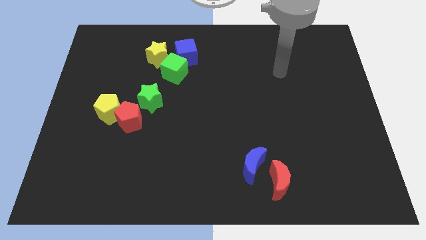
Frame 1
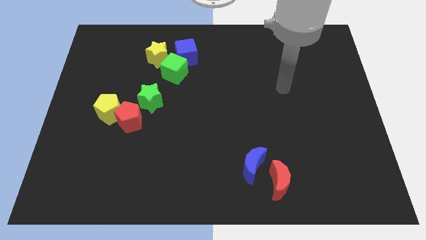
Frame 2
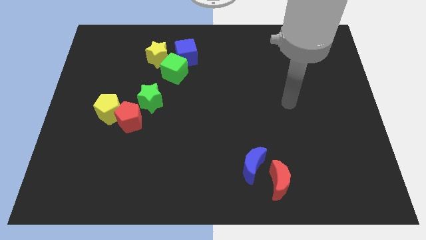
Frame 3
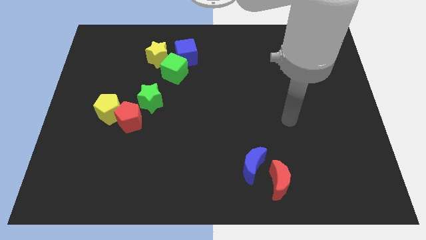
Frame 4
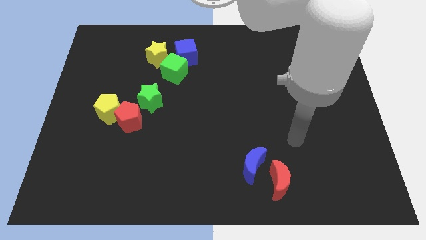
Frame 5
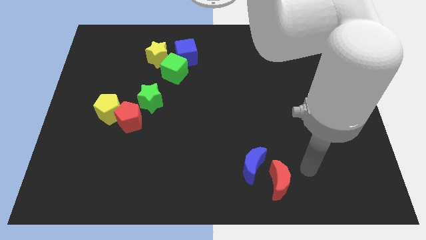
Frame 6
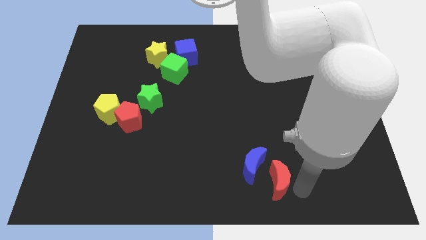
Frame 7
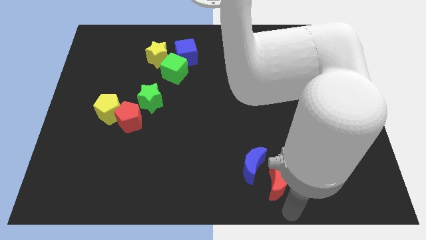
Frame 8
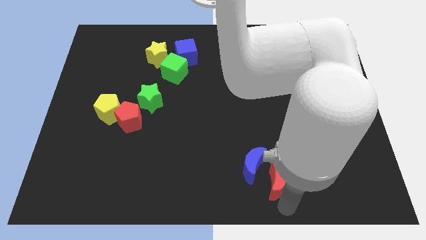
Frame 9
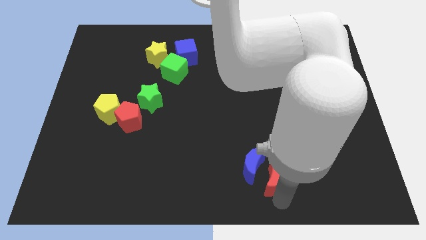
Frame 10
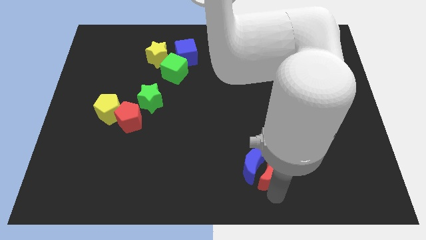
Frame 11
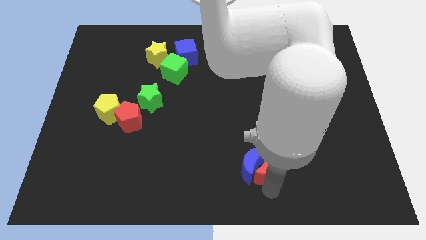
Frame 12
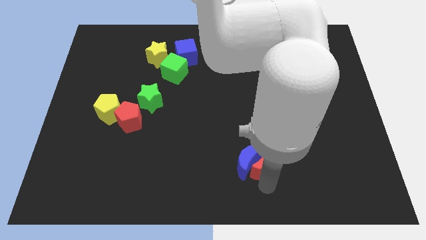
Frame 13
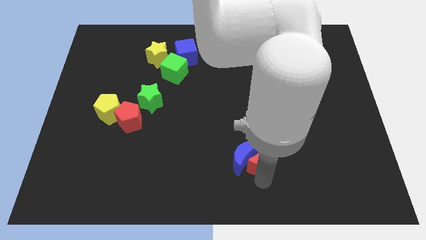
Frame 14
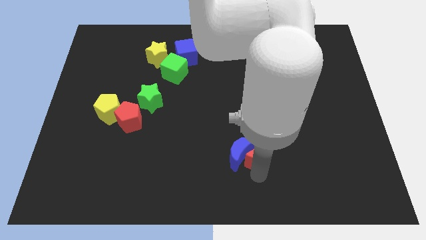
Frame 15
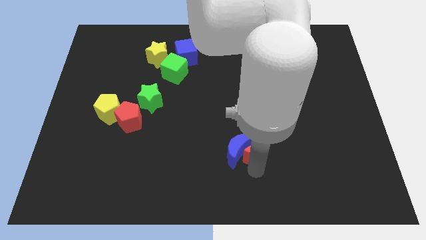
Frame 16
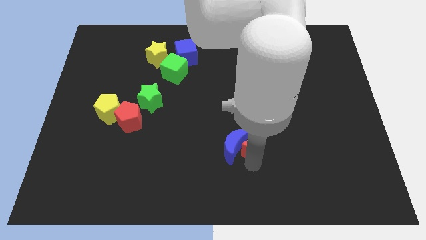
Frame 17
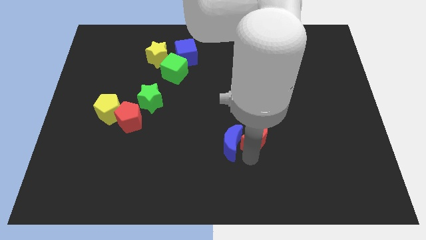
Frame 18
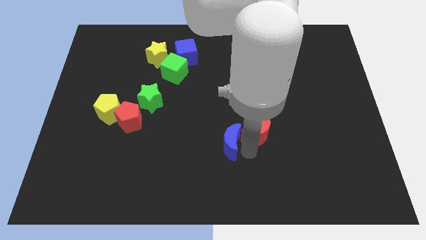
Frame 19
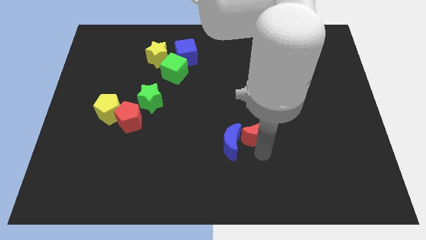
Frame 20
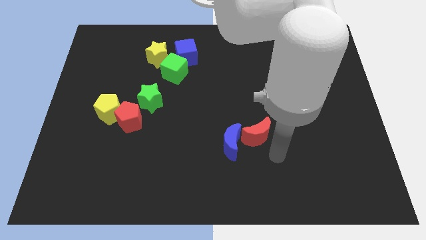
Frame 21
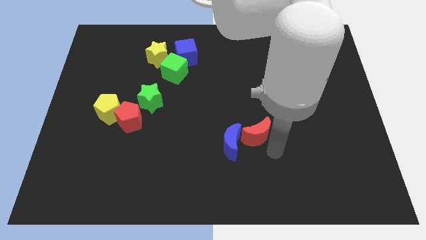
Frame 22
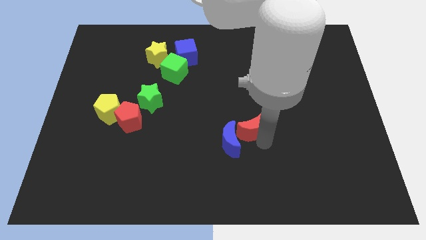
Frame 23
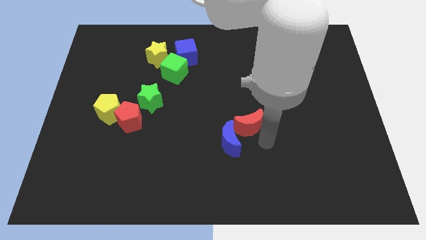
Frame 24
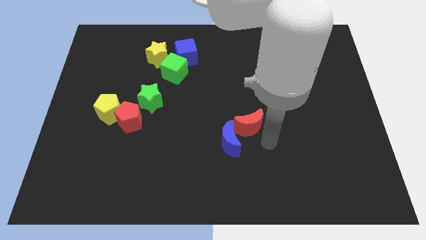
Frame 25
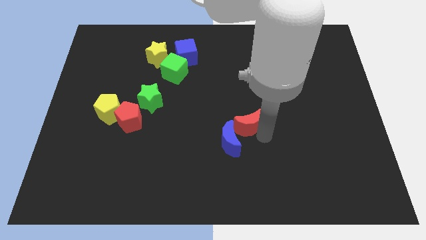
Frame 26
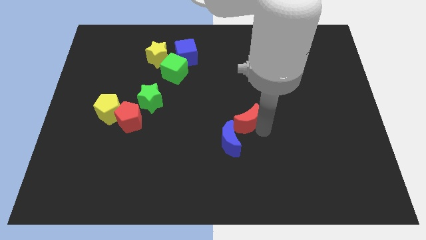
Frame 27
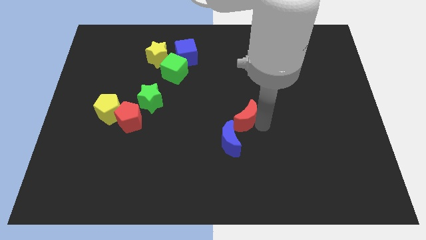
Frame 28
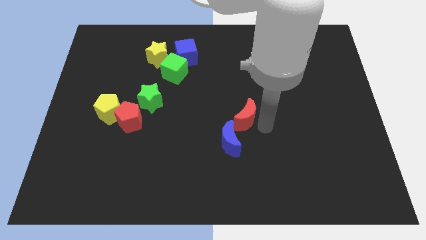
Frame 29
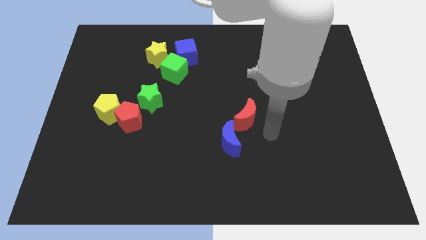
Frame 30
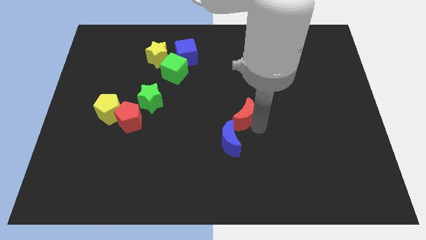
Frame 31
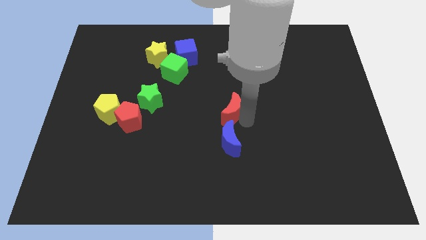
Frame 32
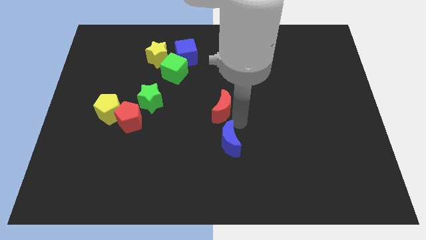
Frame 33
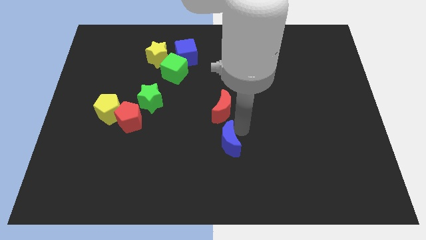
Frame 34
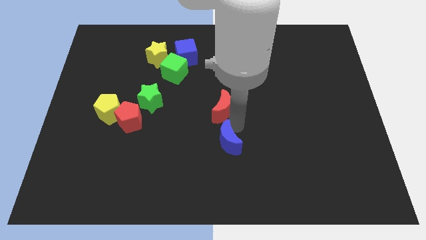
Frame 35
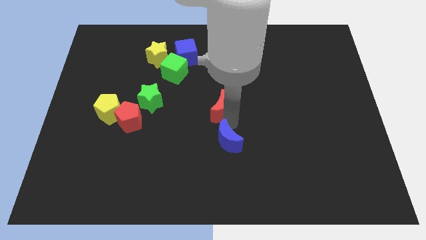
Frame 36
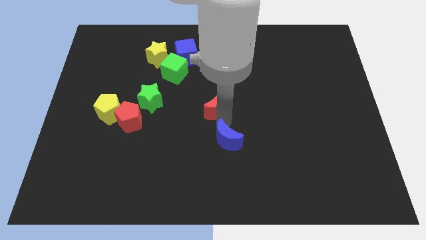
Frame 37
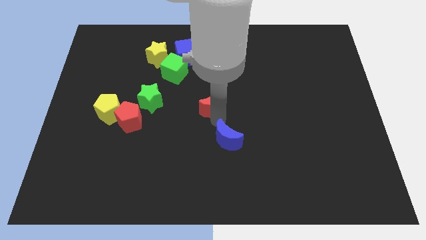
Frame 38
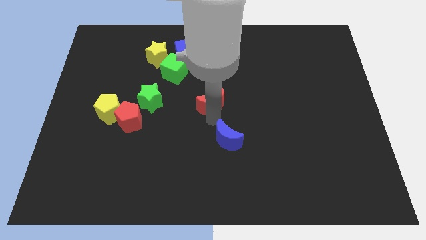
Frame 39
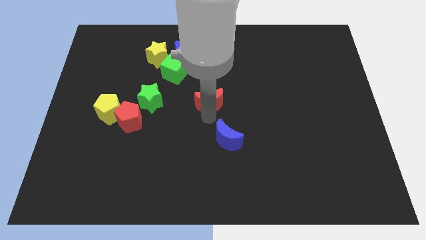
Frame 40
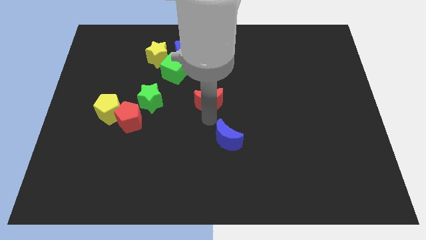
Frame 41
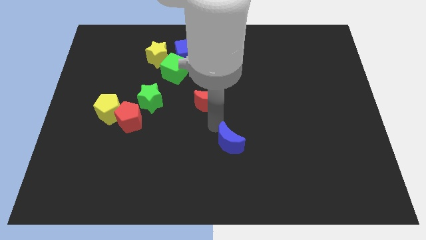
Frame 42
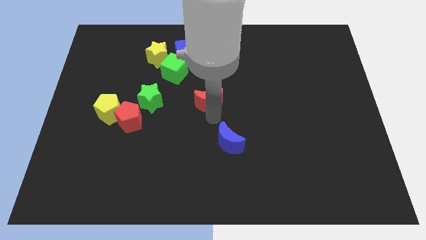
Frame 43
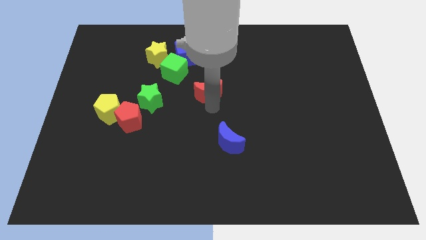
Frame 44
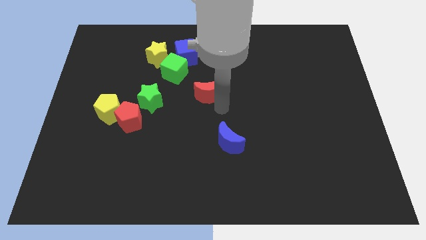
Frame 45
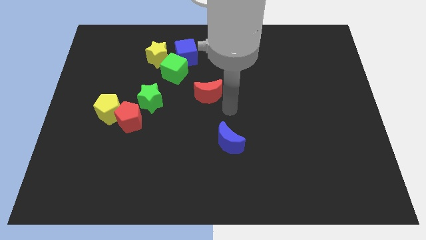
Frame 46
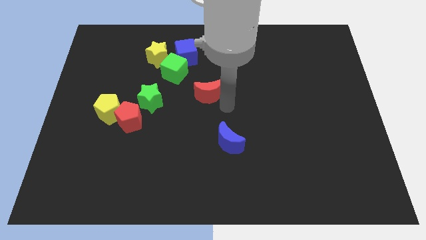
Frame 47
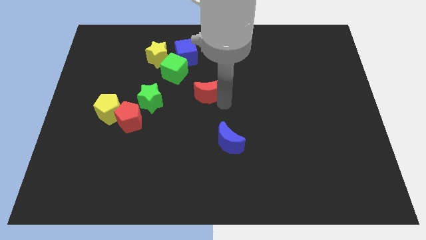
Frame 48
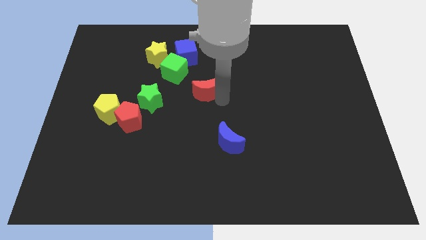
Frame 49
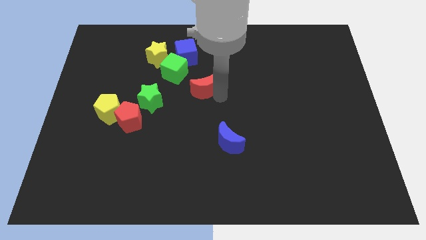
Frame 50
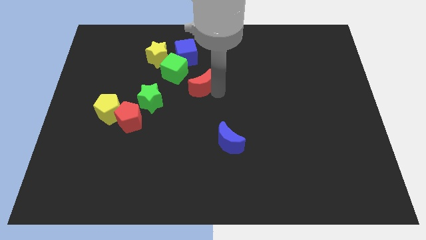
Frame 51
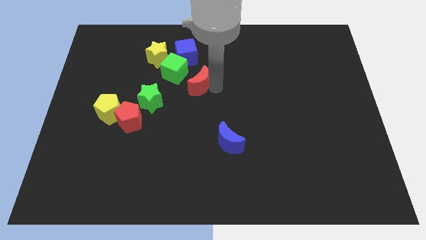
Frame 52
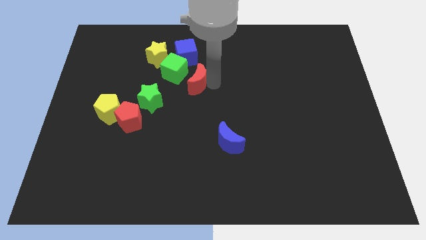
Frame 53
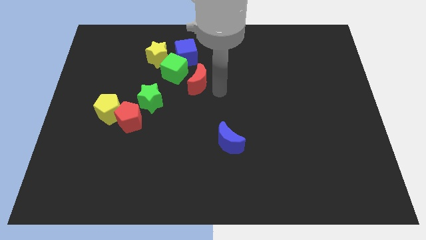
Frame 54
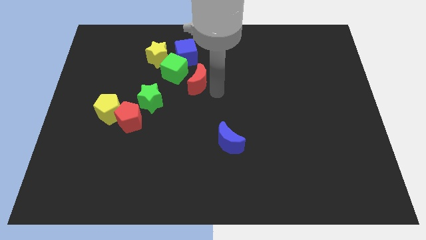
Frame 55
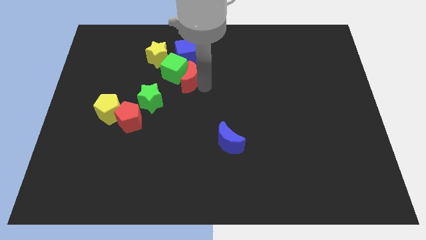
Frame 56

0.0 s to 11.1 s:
push the red moon next to the green cube

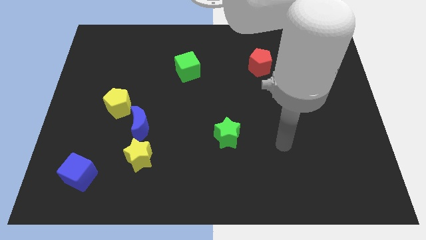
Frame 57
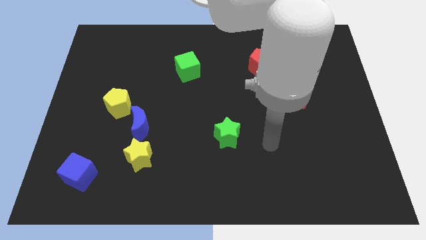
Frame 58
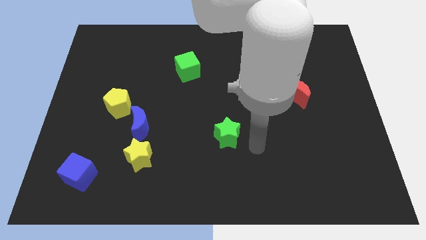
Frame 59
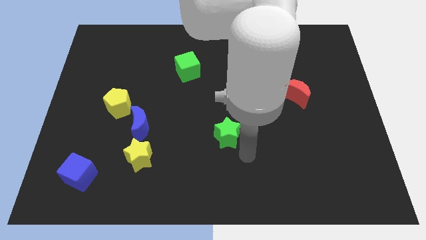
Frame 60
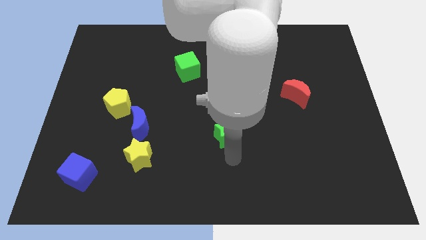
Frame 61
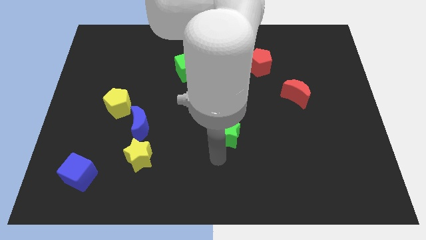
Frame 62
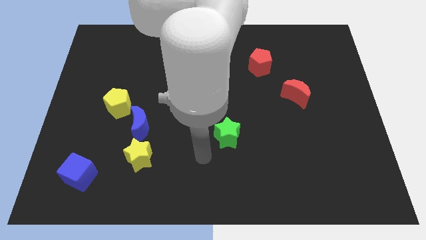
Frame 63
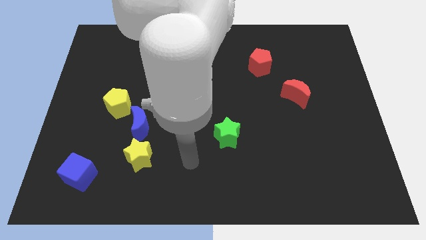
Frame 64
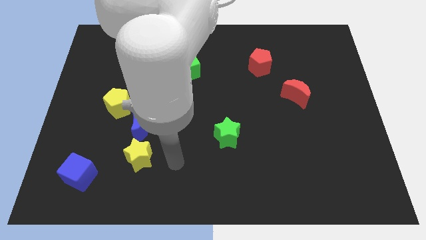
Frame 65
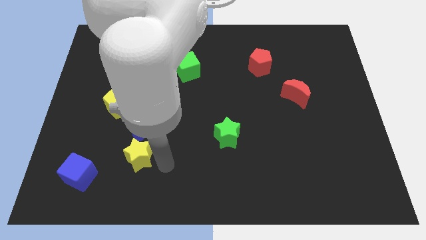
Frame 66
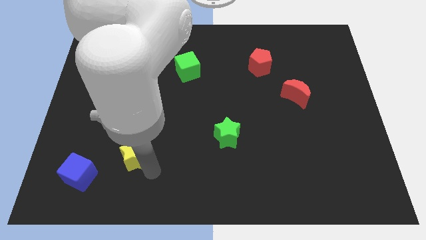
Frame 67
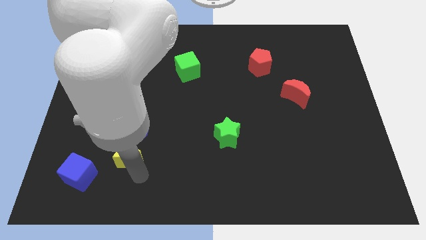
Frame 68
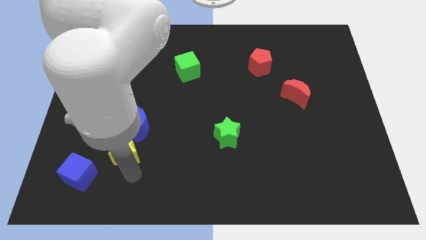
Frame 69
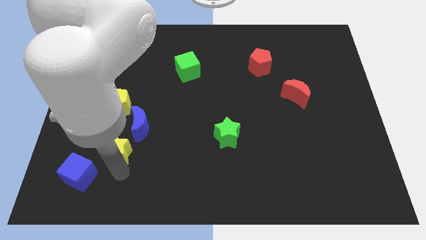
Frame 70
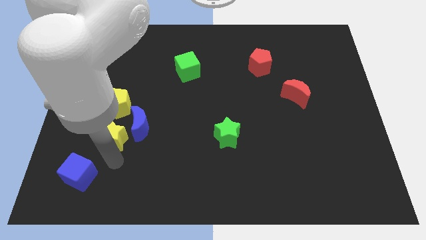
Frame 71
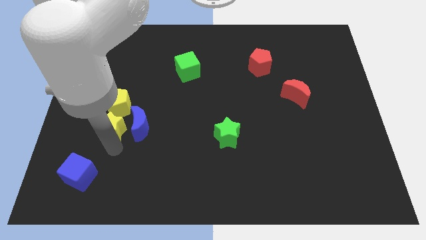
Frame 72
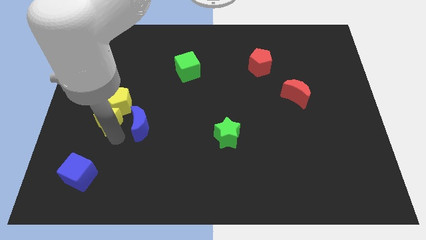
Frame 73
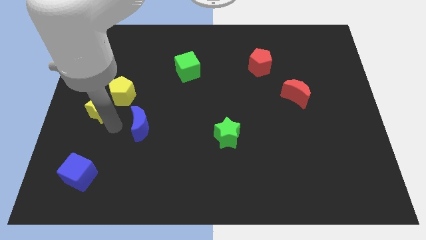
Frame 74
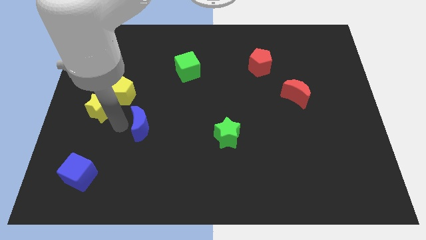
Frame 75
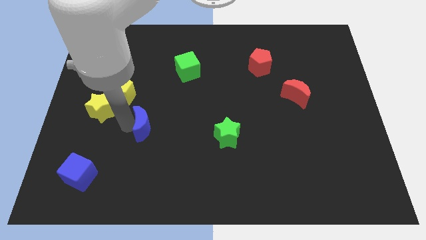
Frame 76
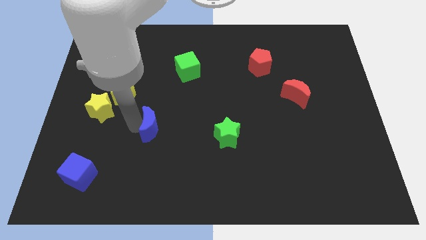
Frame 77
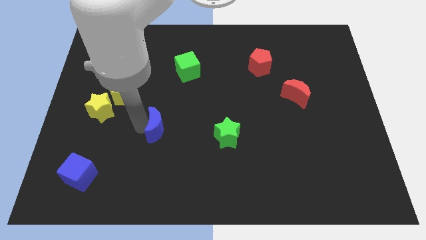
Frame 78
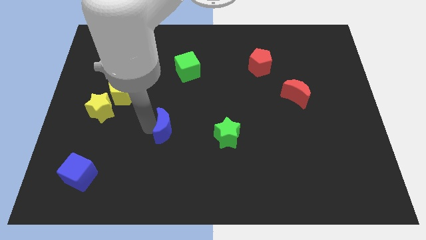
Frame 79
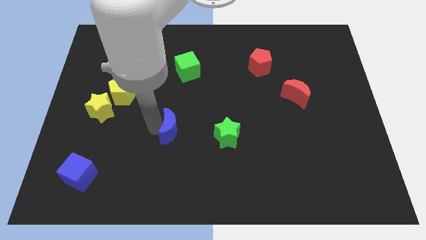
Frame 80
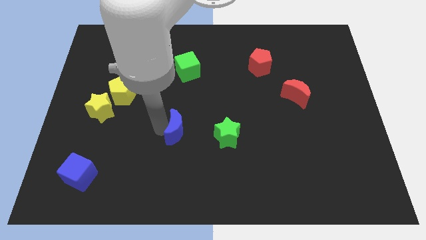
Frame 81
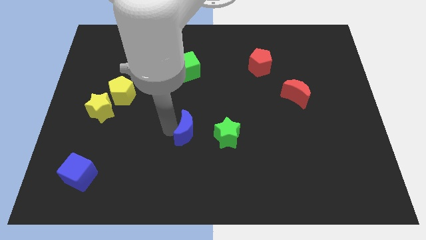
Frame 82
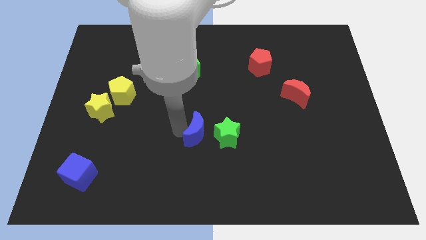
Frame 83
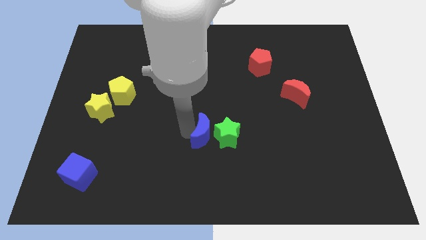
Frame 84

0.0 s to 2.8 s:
slide the blue moon towards the green star
